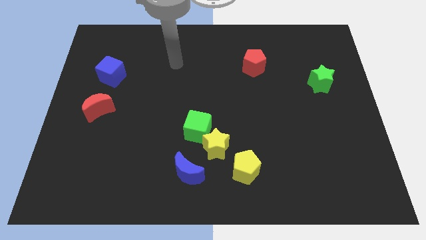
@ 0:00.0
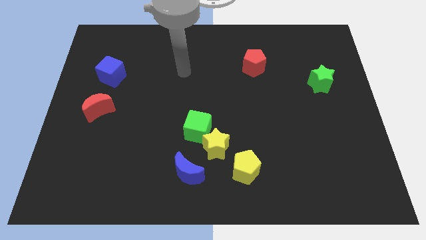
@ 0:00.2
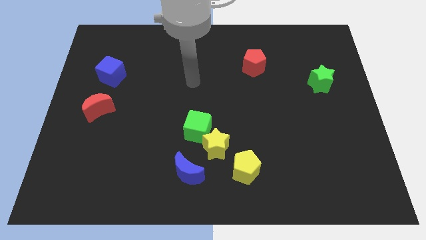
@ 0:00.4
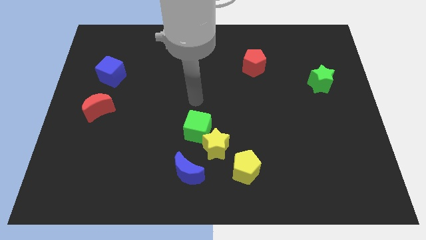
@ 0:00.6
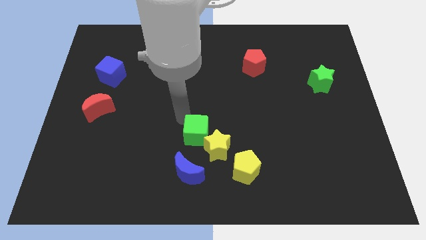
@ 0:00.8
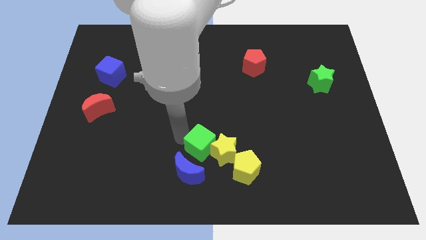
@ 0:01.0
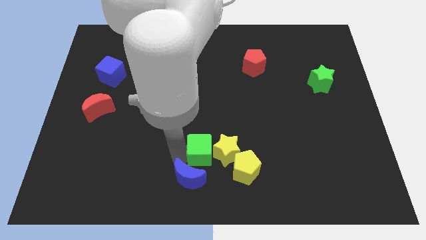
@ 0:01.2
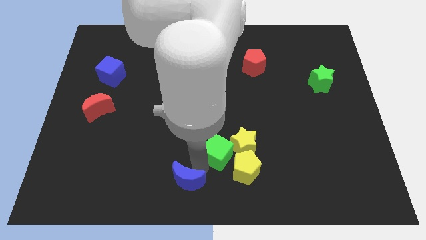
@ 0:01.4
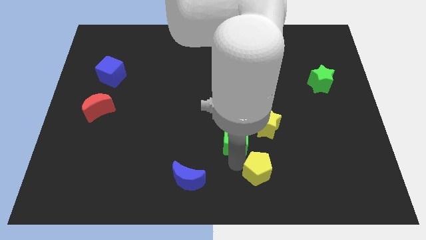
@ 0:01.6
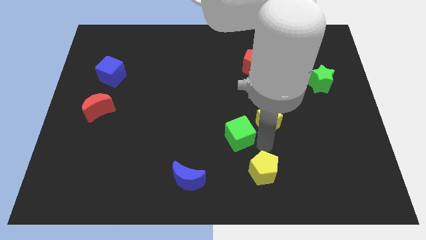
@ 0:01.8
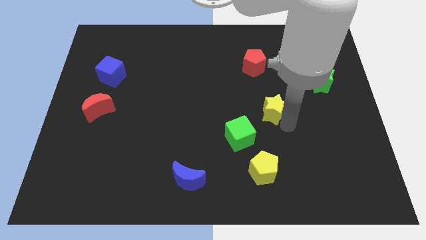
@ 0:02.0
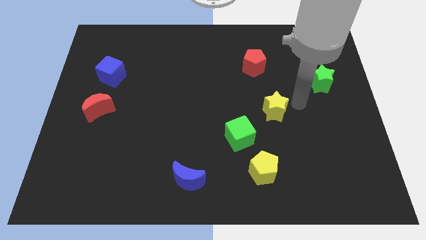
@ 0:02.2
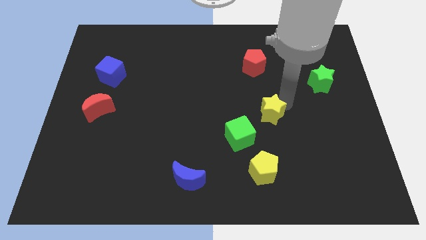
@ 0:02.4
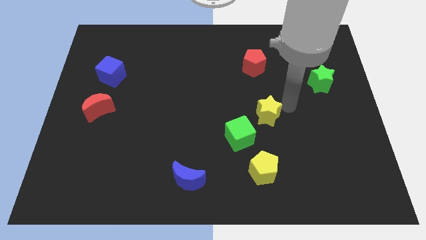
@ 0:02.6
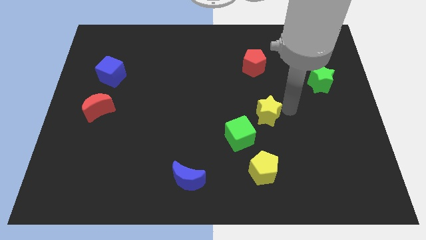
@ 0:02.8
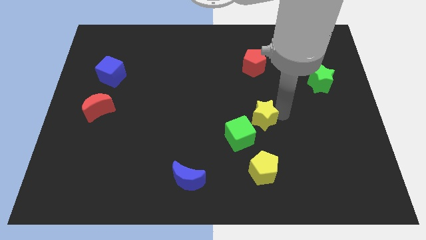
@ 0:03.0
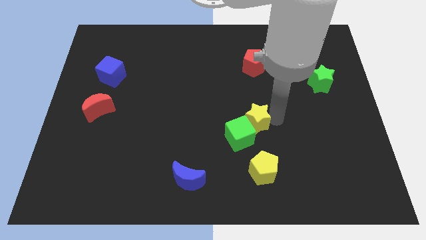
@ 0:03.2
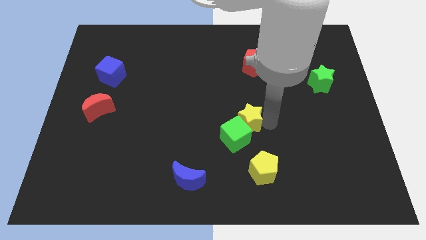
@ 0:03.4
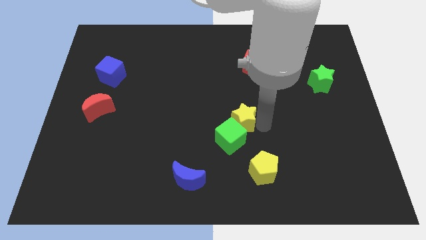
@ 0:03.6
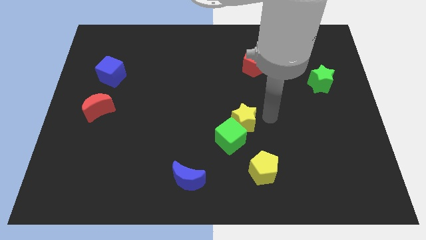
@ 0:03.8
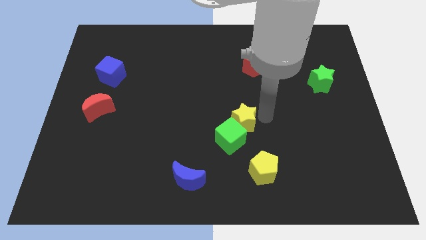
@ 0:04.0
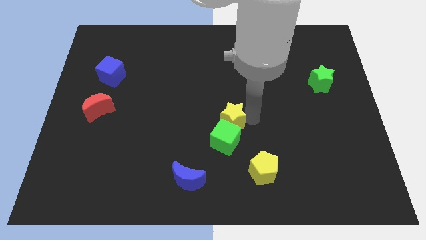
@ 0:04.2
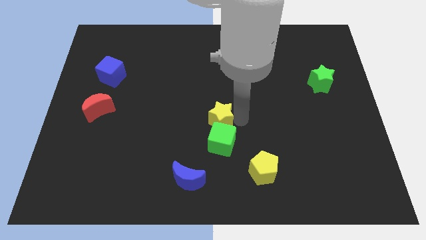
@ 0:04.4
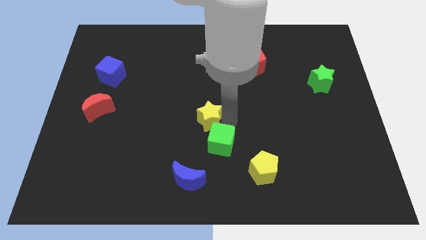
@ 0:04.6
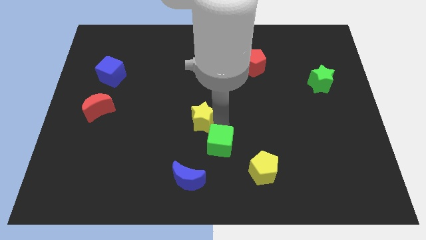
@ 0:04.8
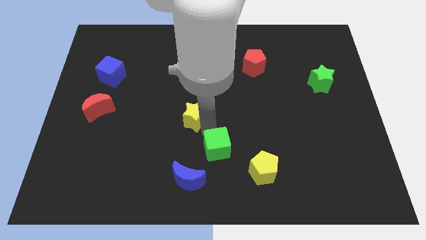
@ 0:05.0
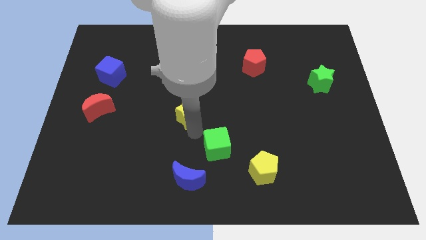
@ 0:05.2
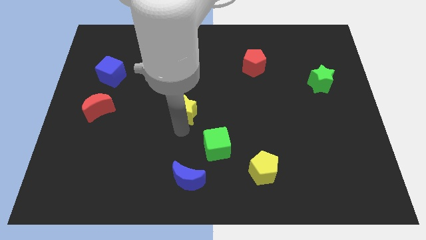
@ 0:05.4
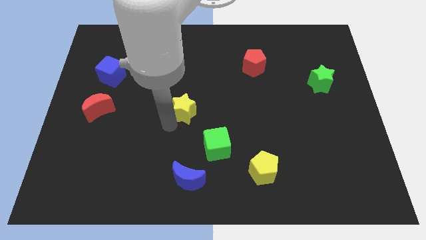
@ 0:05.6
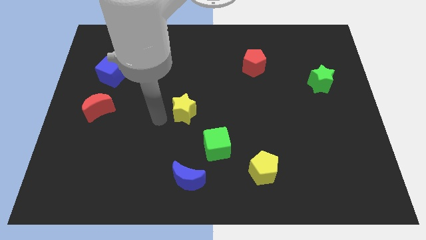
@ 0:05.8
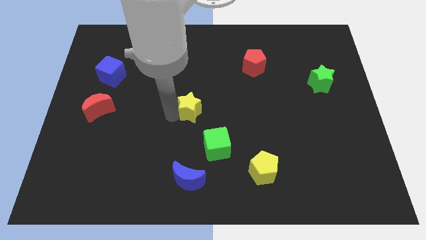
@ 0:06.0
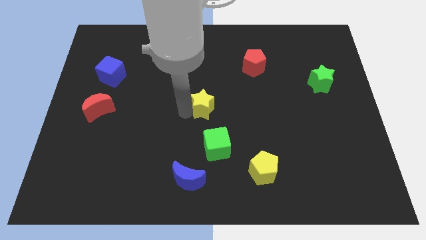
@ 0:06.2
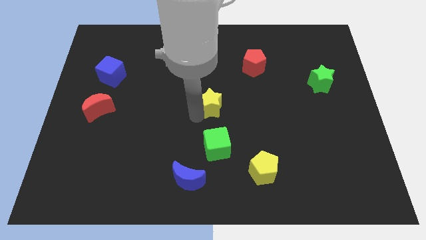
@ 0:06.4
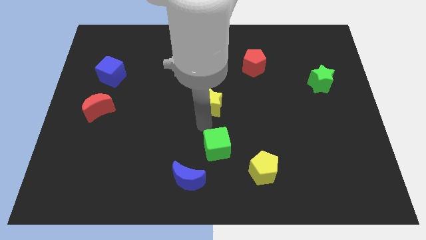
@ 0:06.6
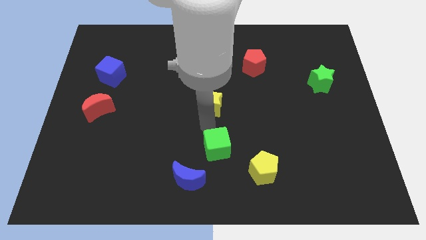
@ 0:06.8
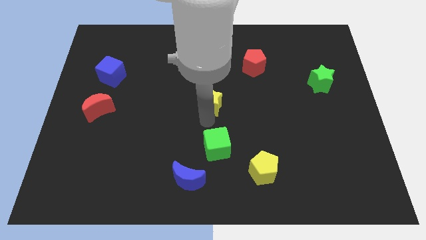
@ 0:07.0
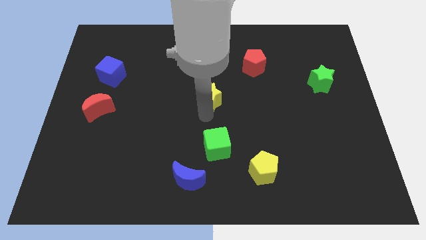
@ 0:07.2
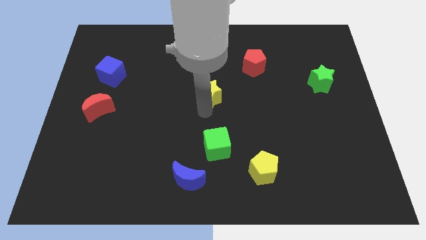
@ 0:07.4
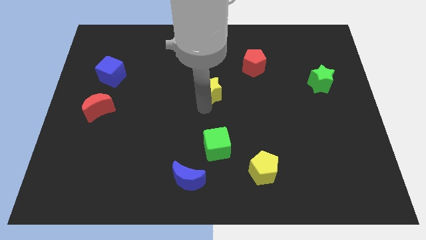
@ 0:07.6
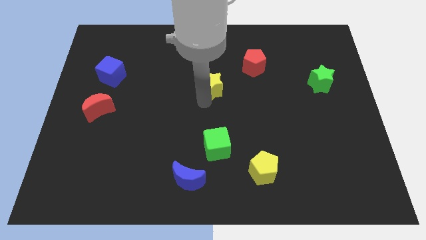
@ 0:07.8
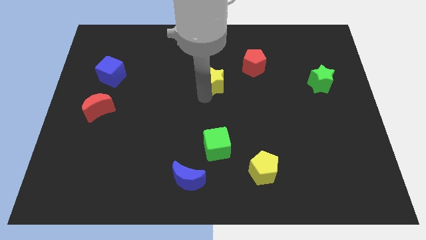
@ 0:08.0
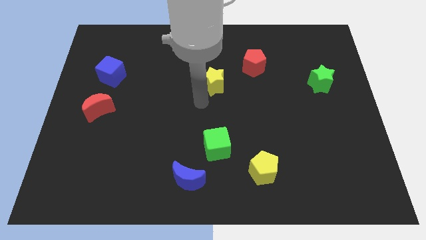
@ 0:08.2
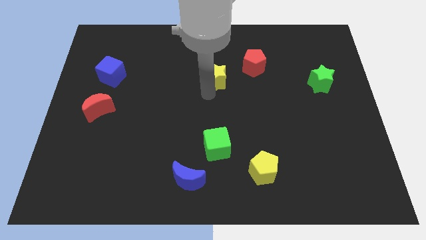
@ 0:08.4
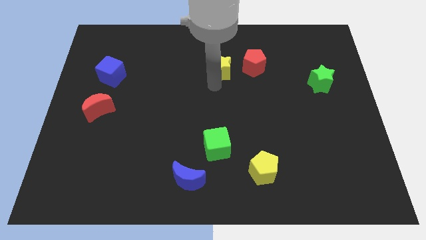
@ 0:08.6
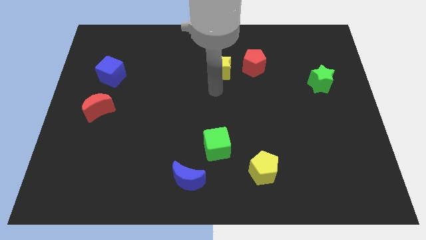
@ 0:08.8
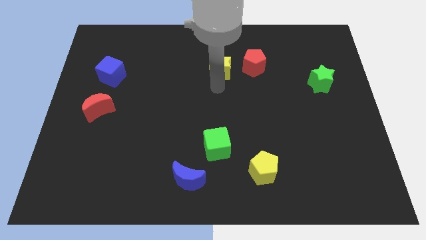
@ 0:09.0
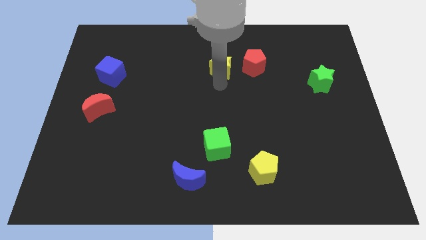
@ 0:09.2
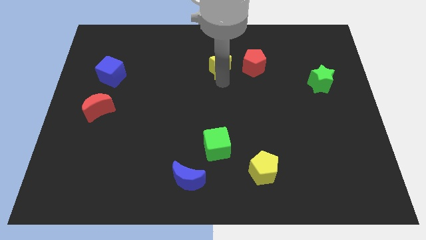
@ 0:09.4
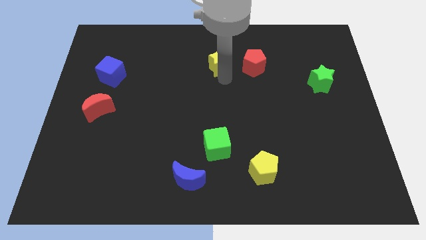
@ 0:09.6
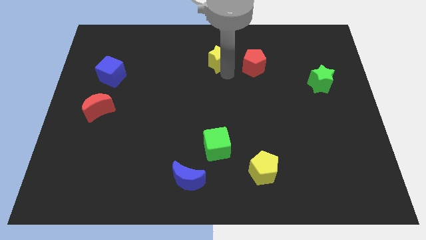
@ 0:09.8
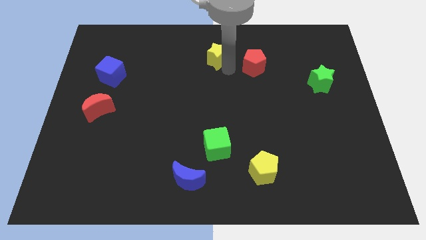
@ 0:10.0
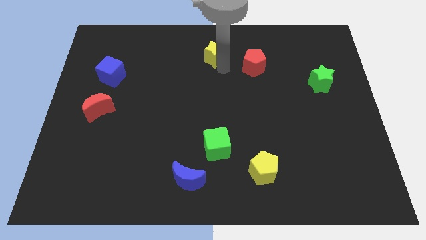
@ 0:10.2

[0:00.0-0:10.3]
put the yellow star to the top side

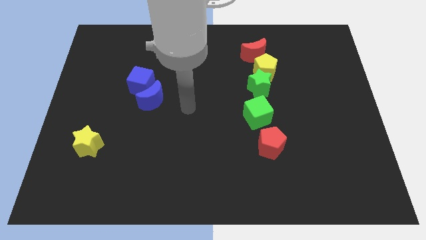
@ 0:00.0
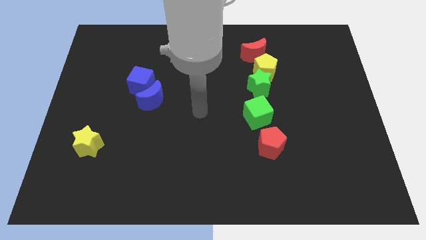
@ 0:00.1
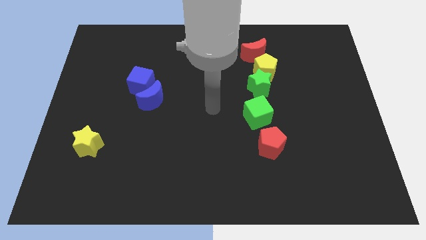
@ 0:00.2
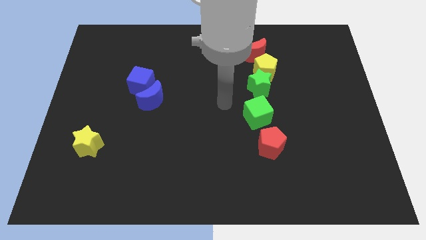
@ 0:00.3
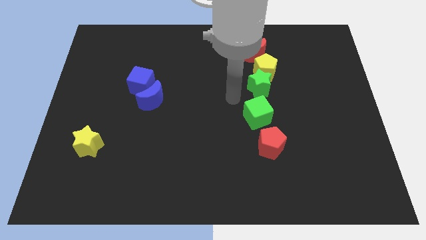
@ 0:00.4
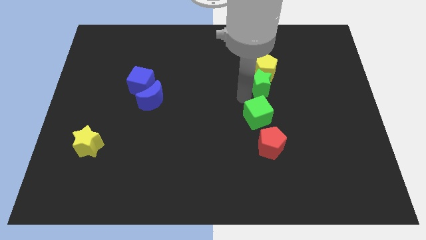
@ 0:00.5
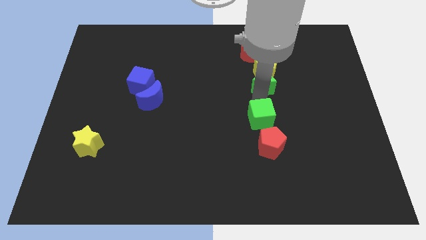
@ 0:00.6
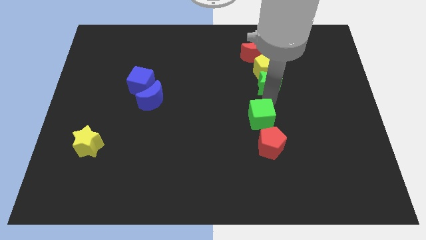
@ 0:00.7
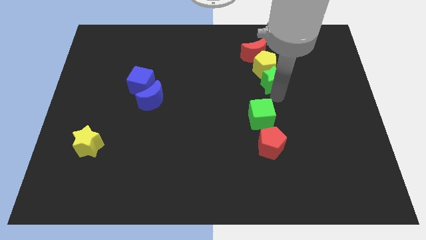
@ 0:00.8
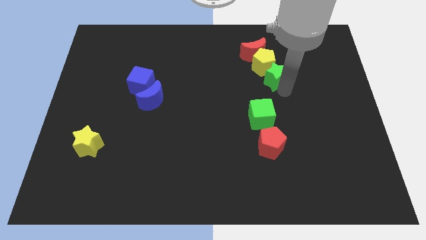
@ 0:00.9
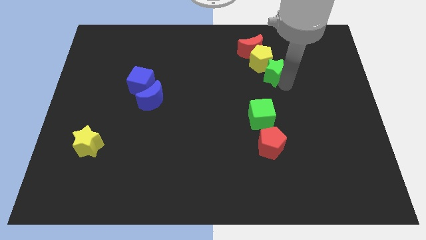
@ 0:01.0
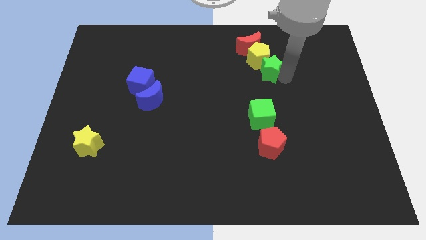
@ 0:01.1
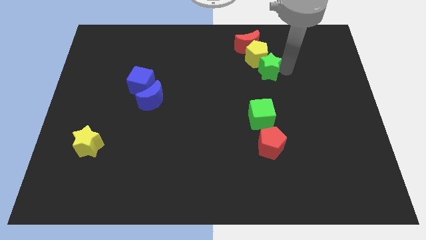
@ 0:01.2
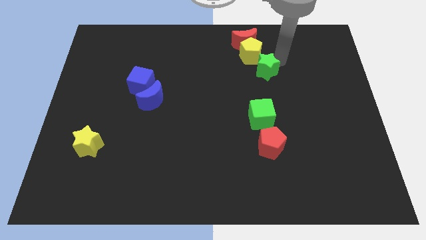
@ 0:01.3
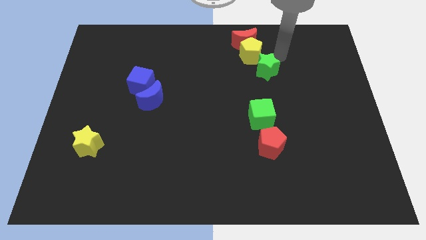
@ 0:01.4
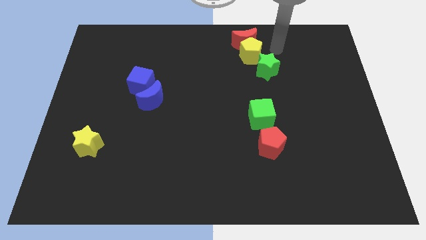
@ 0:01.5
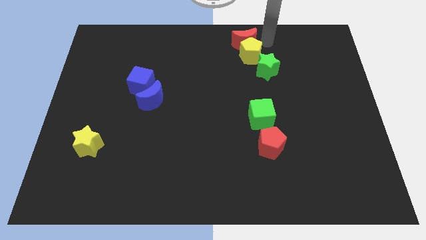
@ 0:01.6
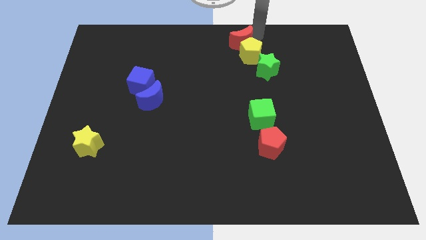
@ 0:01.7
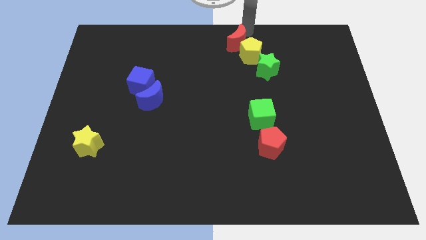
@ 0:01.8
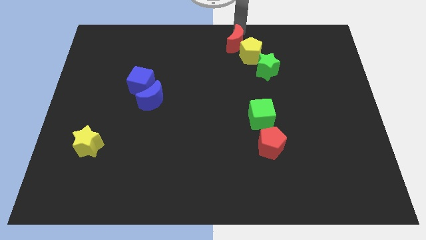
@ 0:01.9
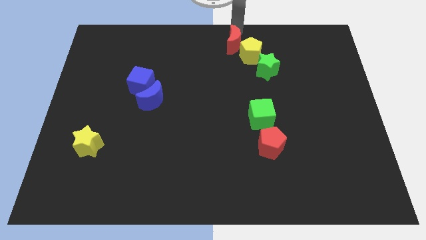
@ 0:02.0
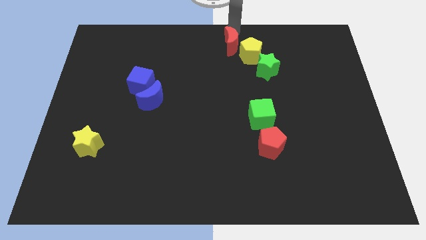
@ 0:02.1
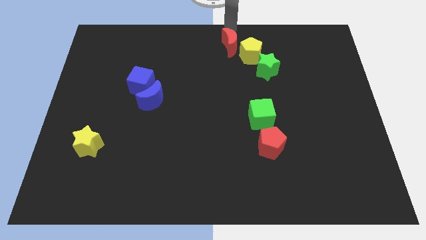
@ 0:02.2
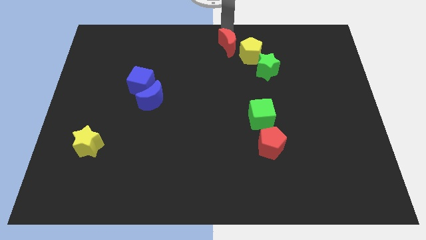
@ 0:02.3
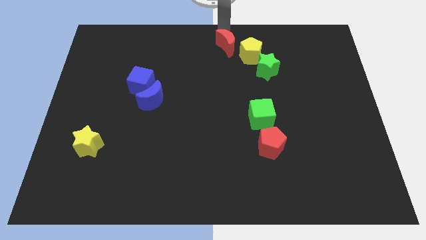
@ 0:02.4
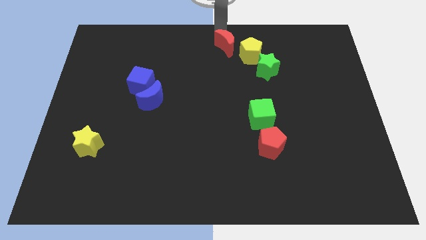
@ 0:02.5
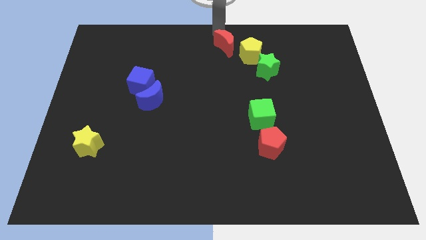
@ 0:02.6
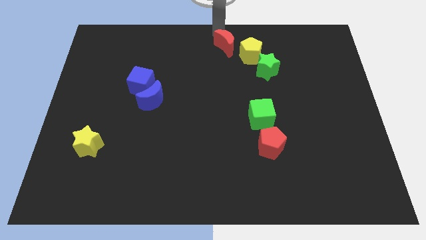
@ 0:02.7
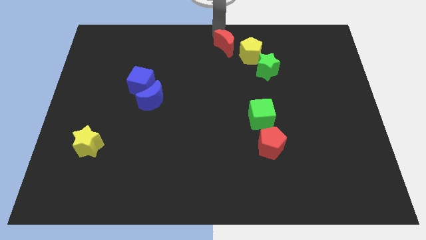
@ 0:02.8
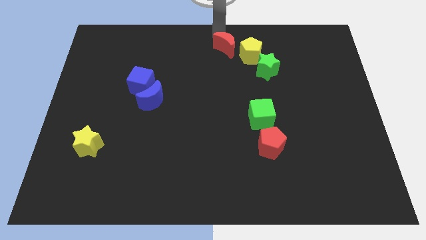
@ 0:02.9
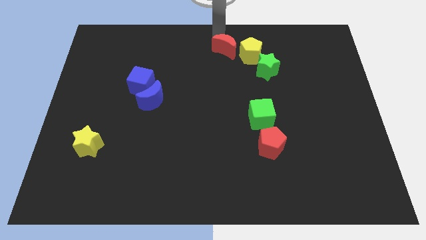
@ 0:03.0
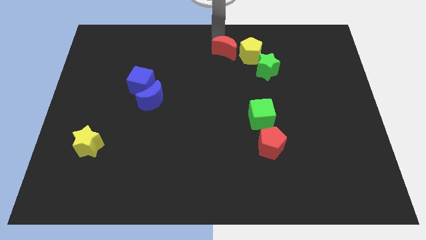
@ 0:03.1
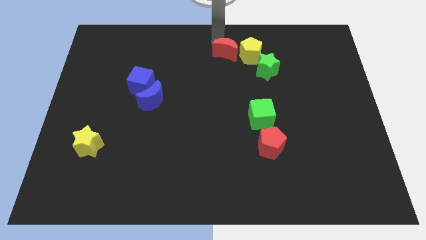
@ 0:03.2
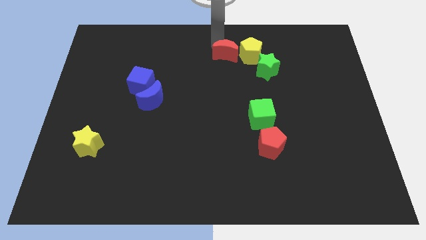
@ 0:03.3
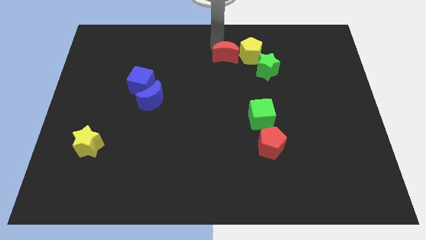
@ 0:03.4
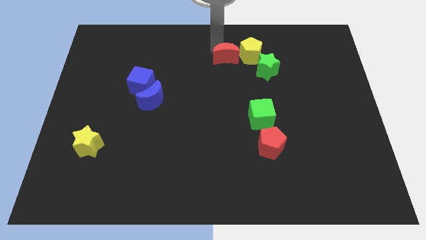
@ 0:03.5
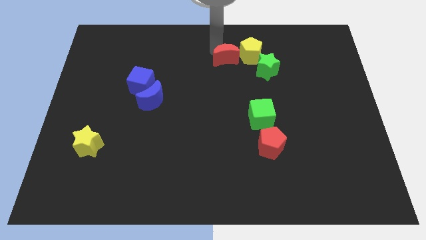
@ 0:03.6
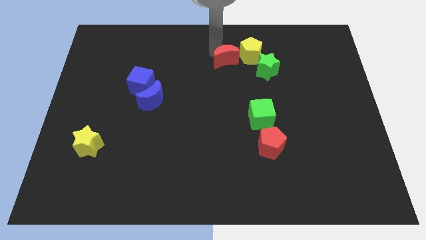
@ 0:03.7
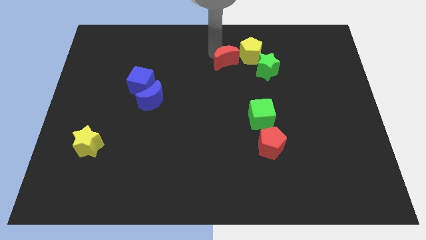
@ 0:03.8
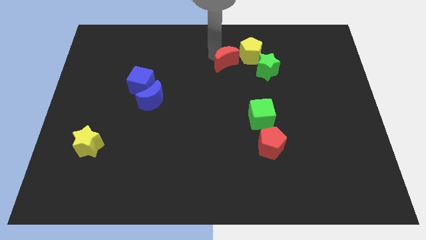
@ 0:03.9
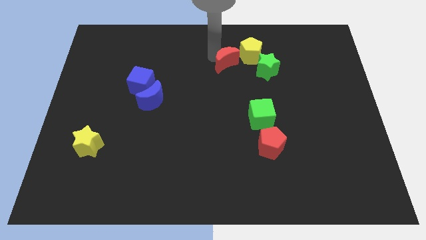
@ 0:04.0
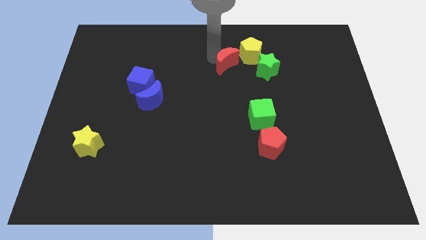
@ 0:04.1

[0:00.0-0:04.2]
slide the red moon to the center of the board
